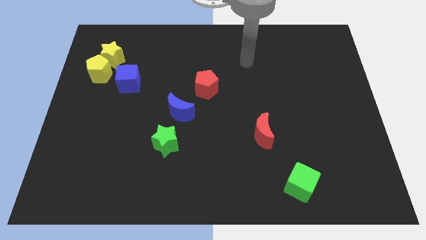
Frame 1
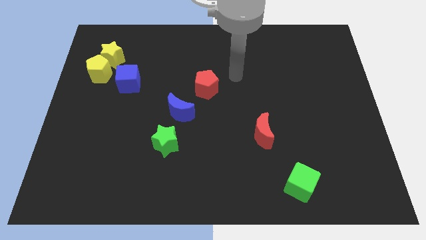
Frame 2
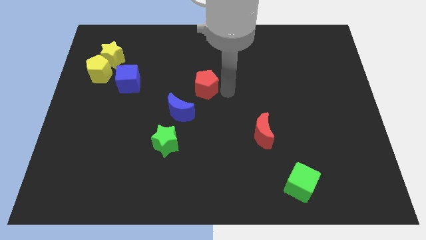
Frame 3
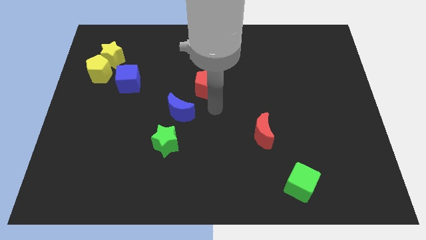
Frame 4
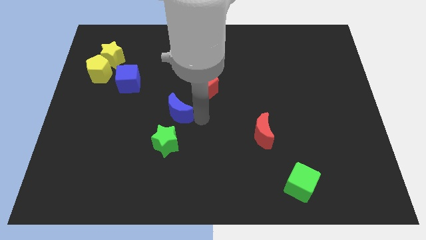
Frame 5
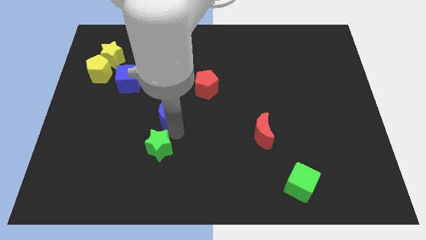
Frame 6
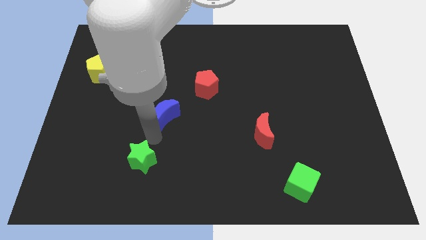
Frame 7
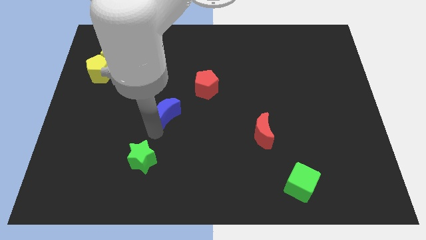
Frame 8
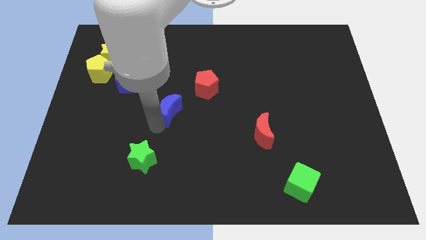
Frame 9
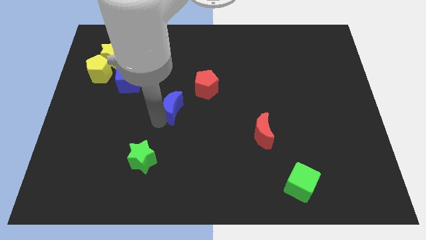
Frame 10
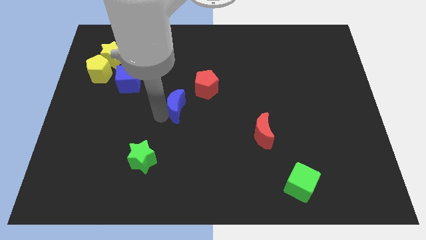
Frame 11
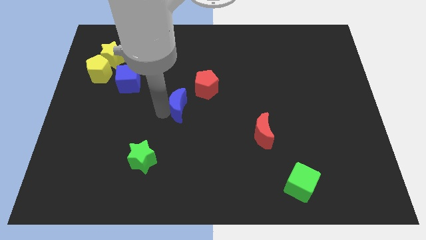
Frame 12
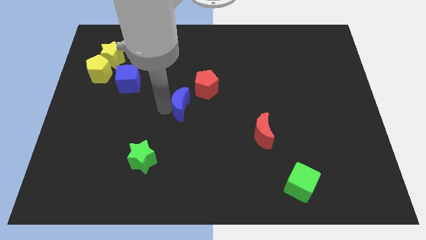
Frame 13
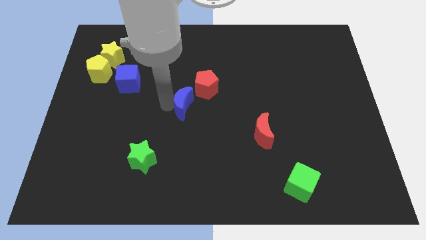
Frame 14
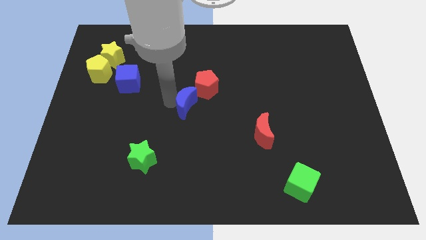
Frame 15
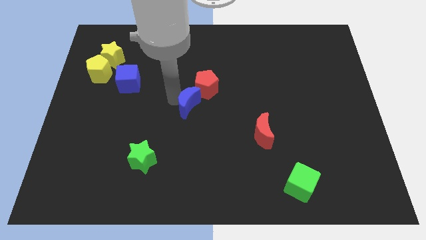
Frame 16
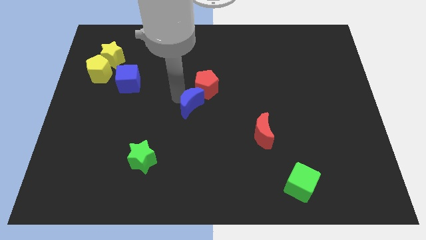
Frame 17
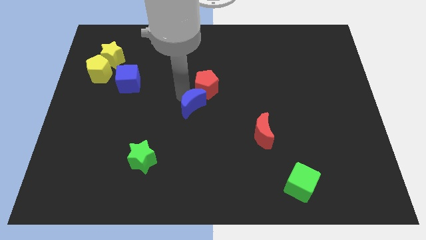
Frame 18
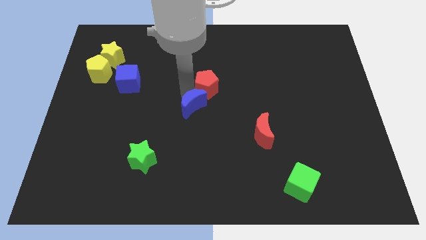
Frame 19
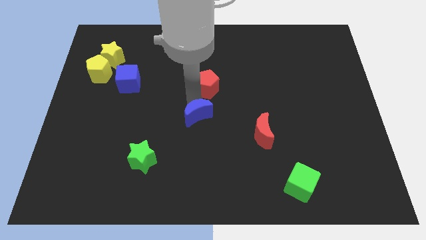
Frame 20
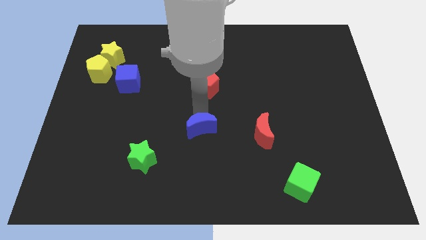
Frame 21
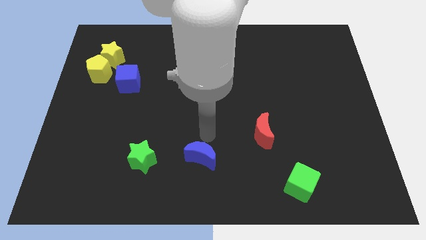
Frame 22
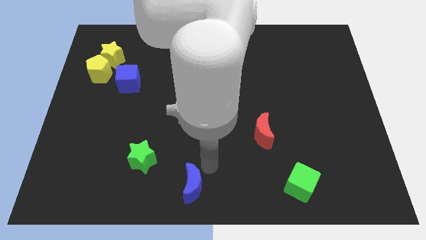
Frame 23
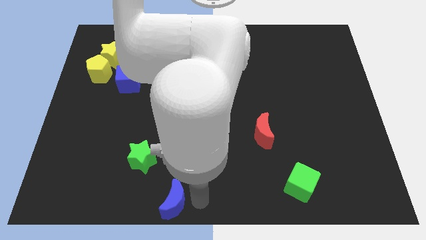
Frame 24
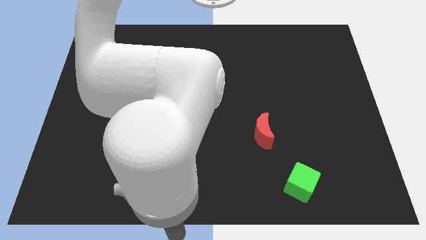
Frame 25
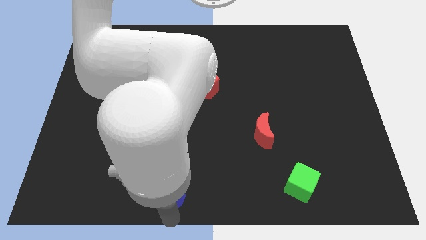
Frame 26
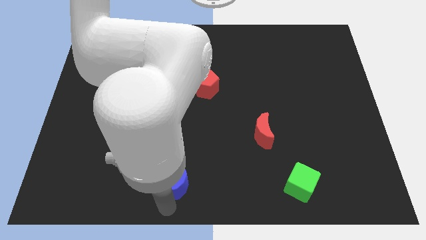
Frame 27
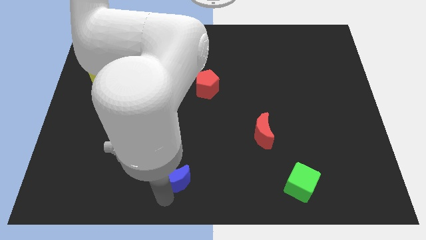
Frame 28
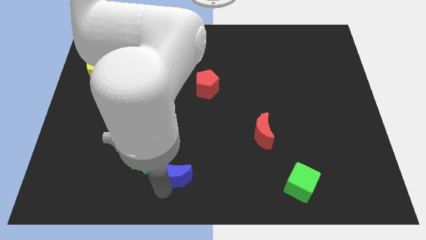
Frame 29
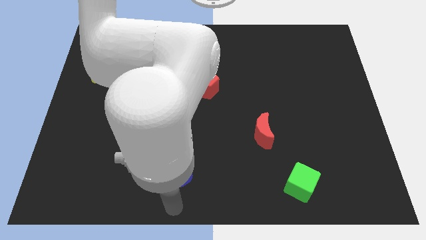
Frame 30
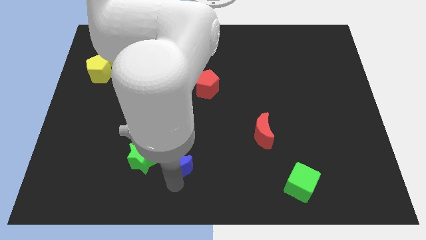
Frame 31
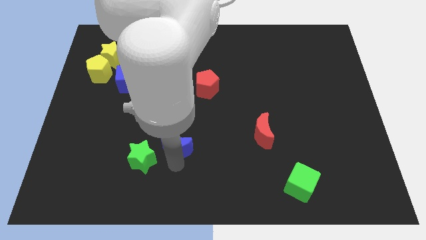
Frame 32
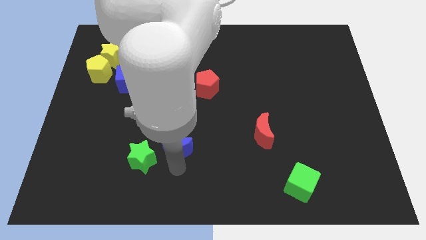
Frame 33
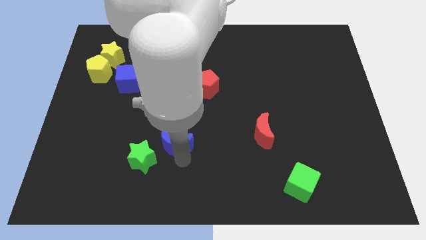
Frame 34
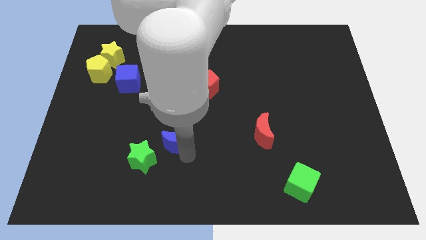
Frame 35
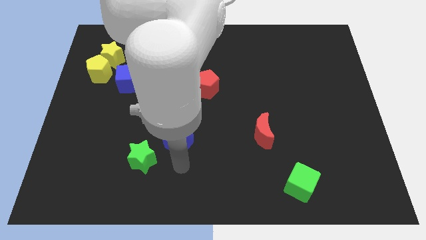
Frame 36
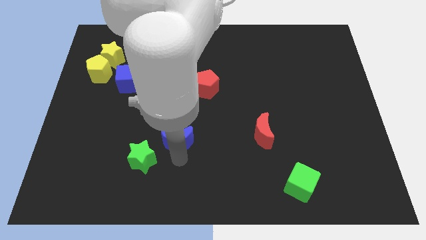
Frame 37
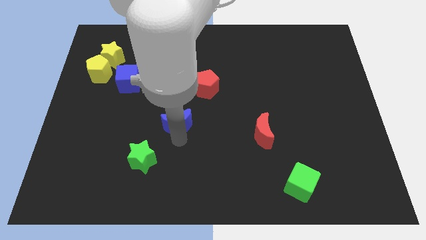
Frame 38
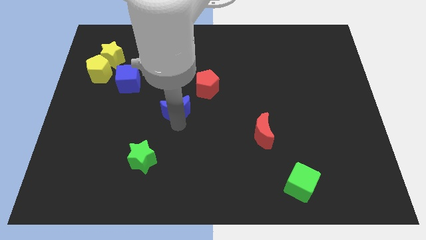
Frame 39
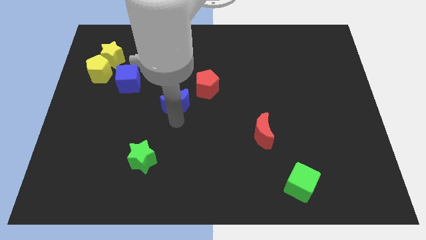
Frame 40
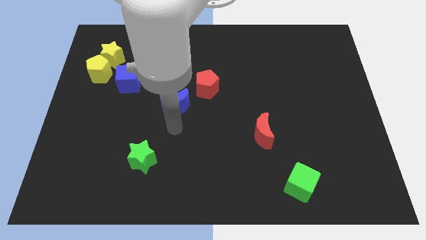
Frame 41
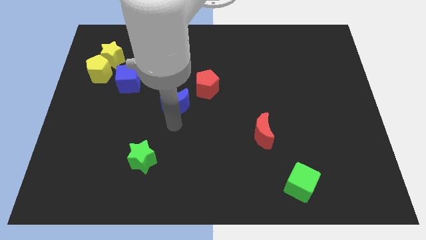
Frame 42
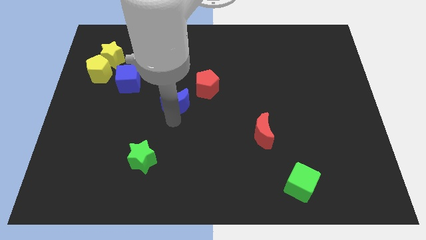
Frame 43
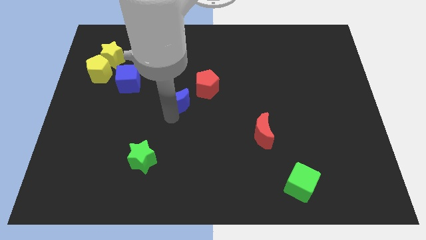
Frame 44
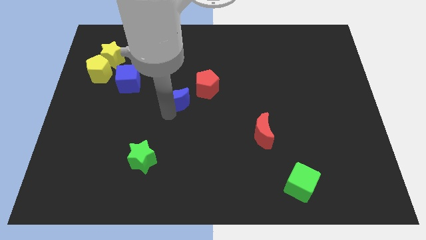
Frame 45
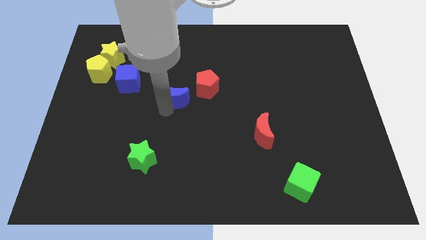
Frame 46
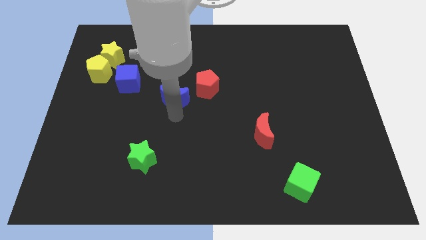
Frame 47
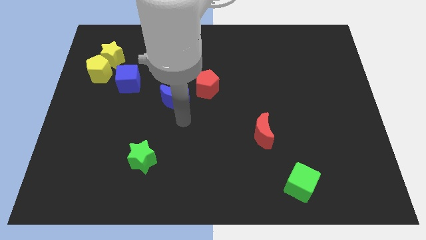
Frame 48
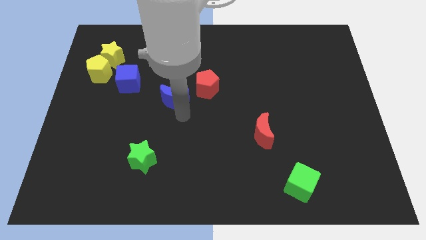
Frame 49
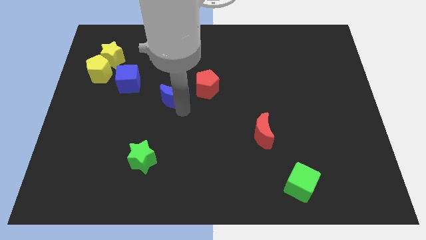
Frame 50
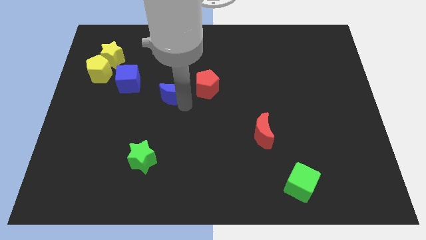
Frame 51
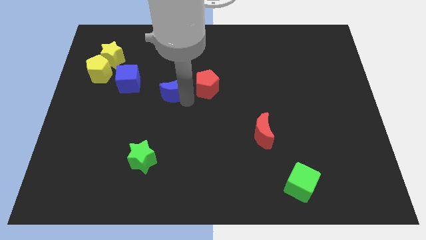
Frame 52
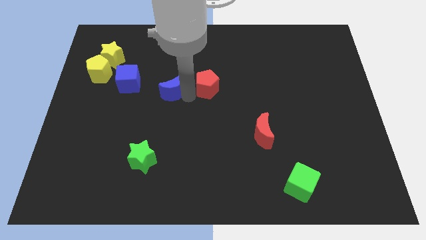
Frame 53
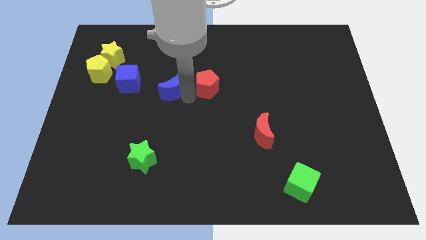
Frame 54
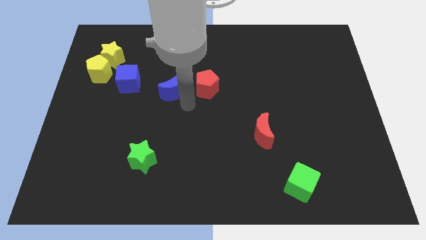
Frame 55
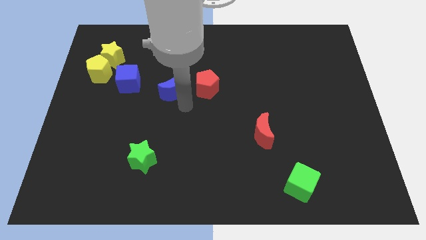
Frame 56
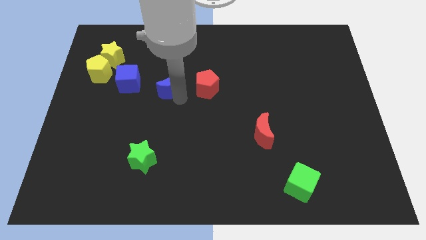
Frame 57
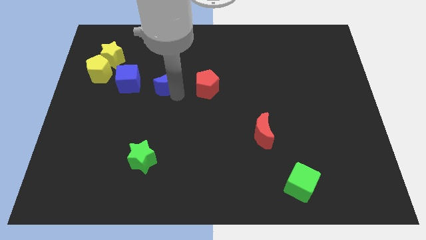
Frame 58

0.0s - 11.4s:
slide the blue moon upwards and left diagonally a little

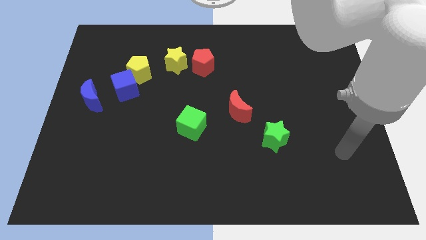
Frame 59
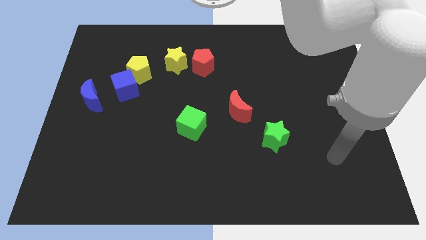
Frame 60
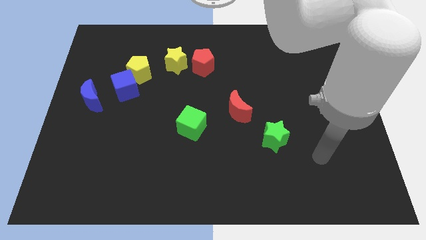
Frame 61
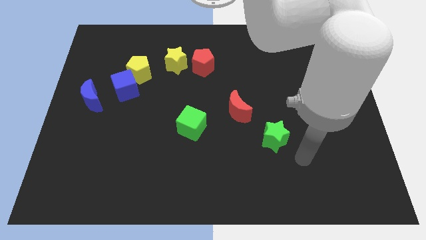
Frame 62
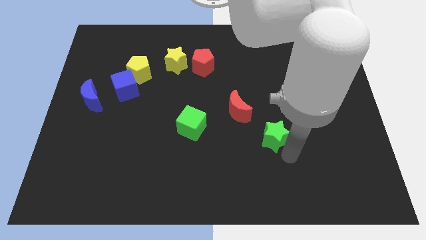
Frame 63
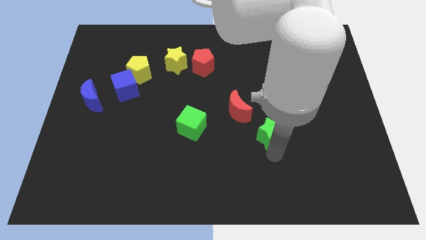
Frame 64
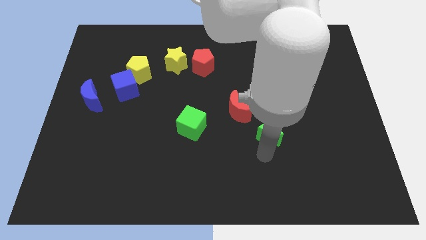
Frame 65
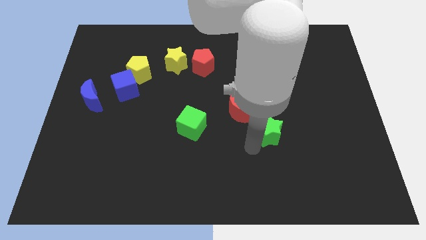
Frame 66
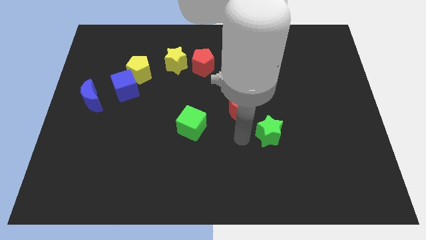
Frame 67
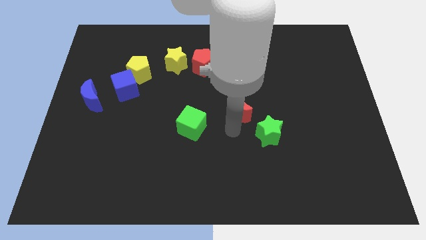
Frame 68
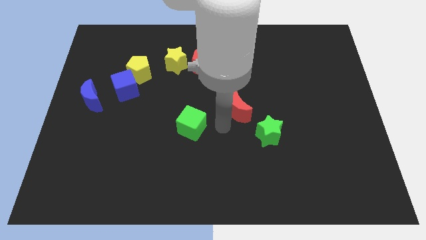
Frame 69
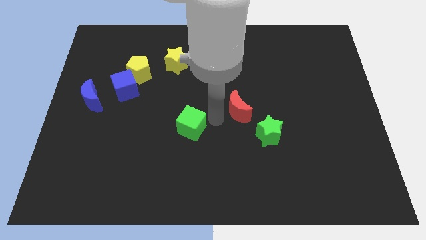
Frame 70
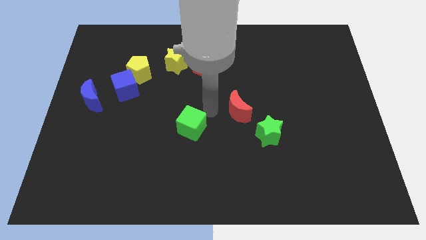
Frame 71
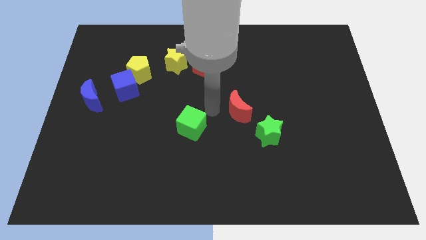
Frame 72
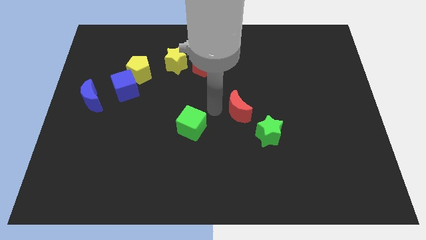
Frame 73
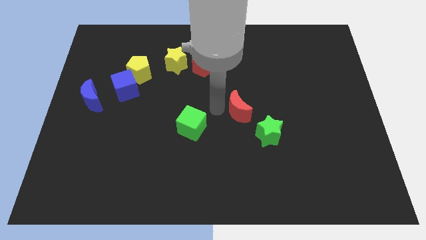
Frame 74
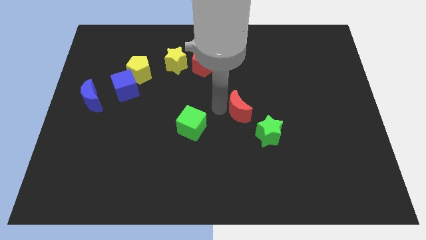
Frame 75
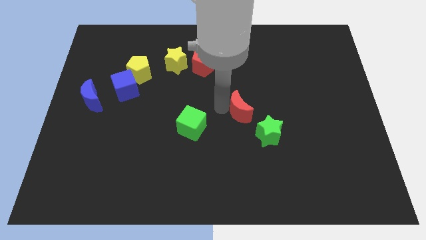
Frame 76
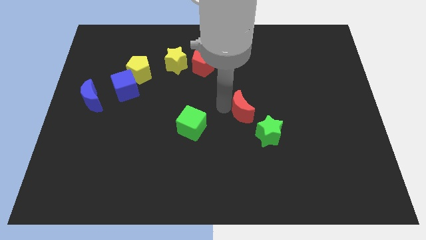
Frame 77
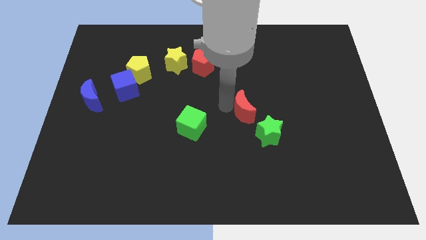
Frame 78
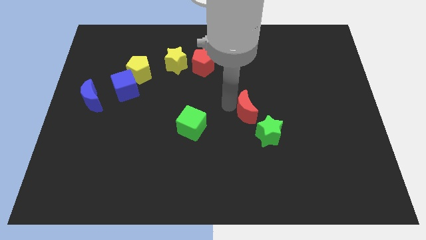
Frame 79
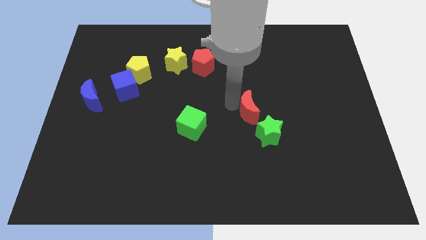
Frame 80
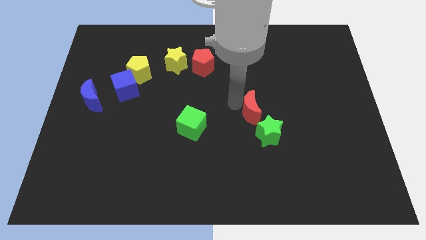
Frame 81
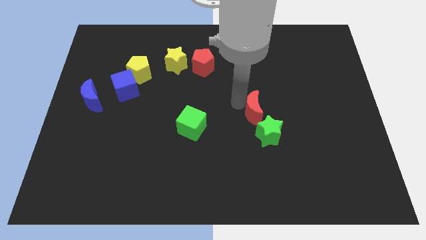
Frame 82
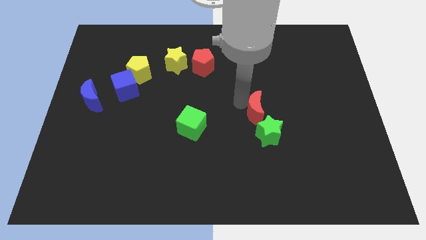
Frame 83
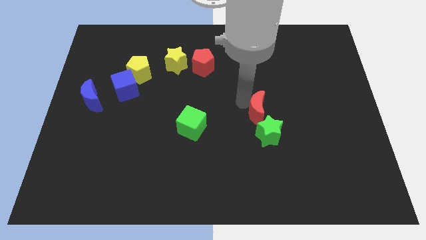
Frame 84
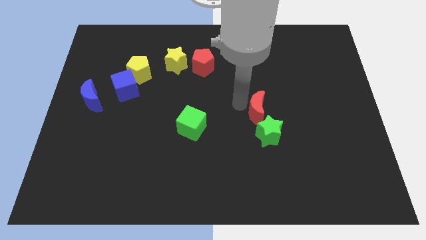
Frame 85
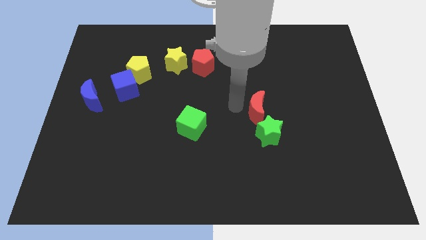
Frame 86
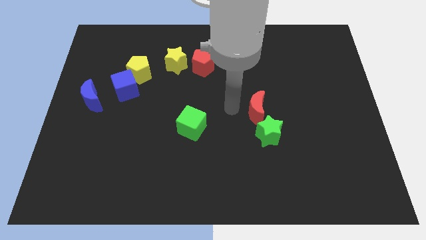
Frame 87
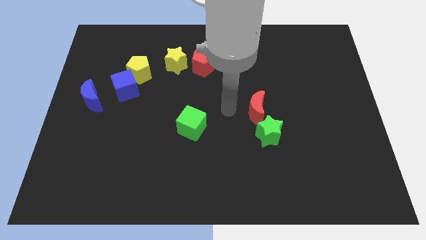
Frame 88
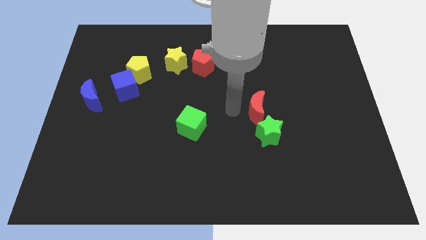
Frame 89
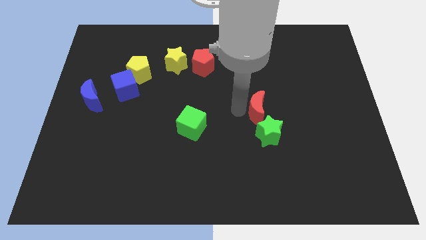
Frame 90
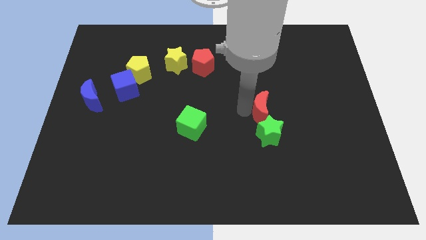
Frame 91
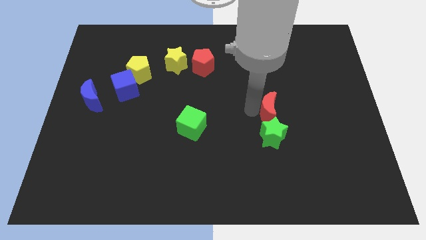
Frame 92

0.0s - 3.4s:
slightly slide the red moon to the right
